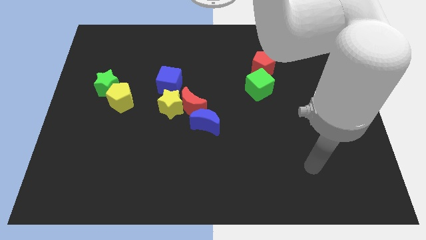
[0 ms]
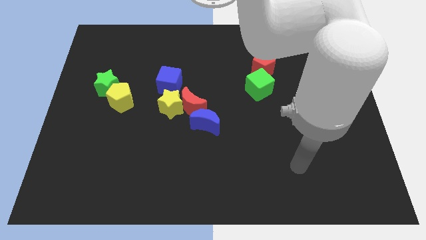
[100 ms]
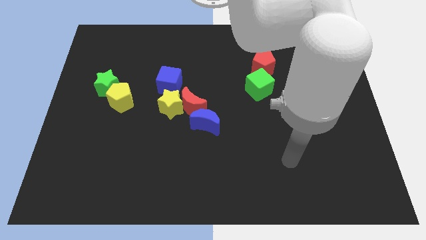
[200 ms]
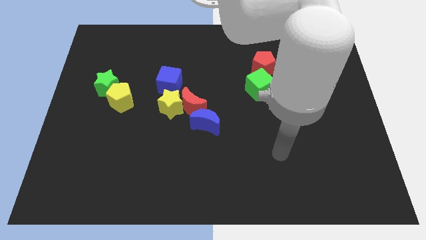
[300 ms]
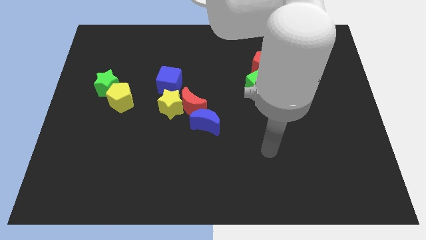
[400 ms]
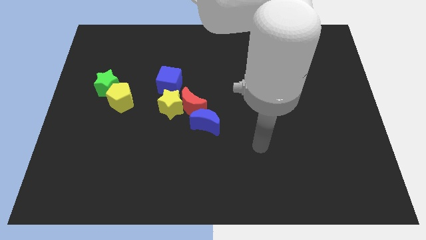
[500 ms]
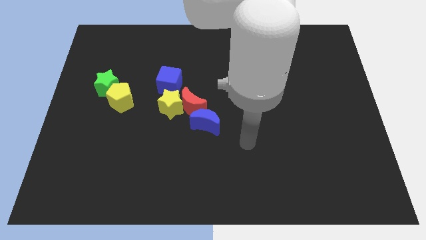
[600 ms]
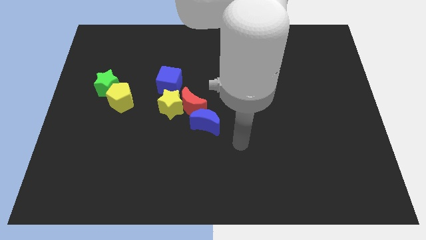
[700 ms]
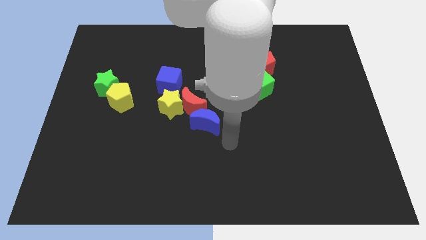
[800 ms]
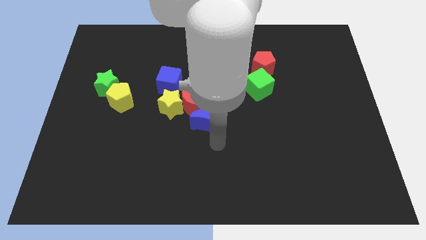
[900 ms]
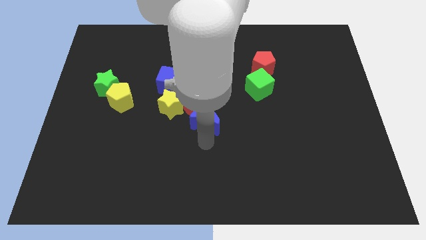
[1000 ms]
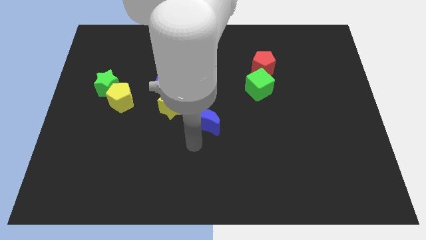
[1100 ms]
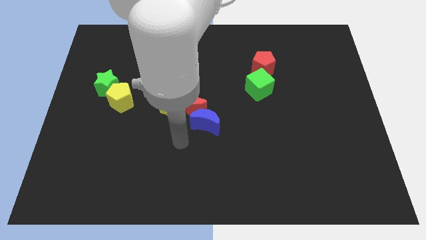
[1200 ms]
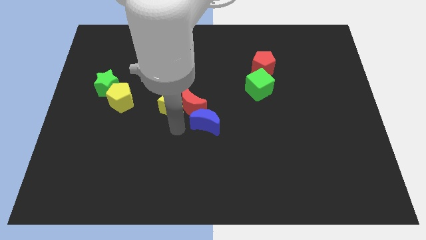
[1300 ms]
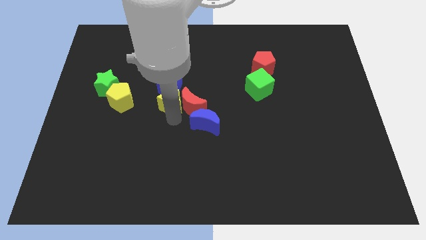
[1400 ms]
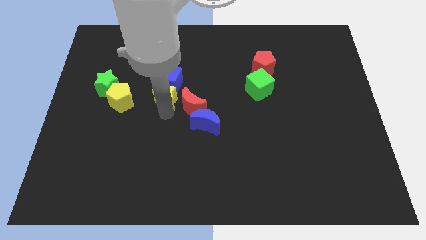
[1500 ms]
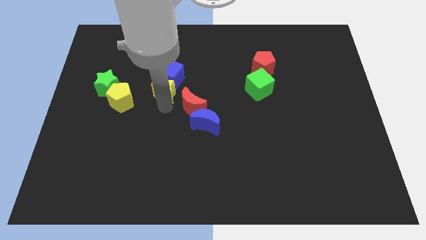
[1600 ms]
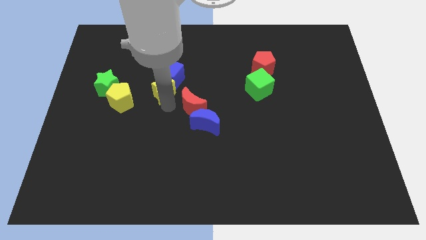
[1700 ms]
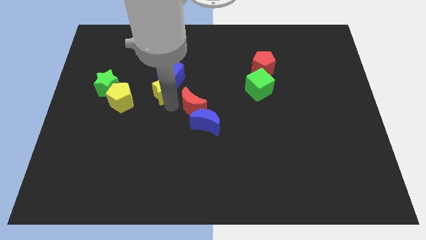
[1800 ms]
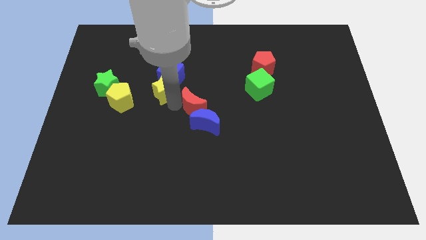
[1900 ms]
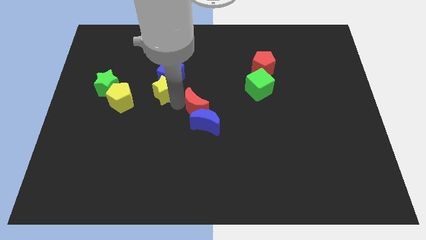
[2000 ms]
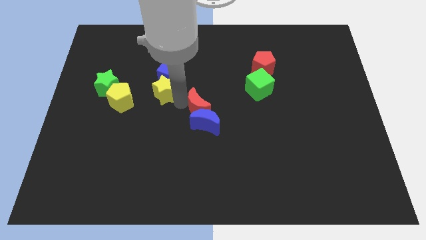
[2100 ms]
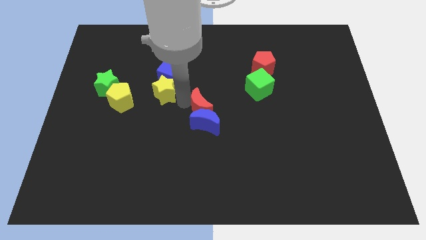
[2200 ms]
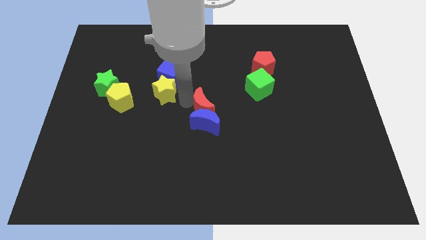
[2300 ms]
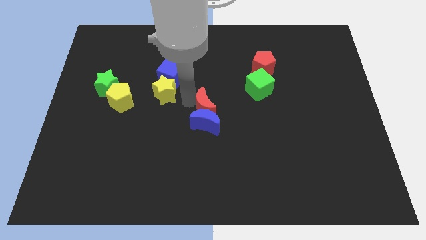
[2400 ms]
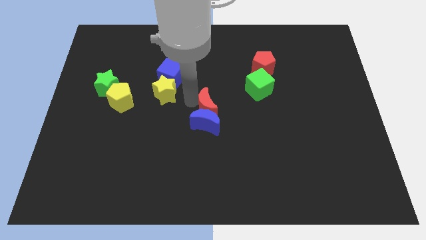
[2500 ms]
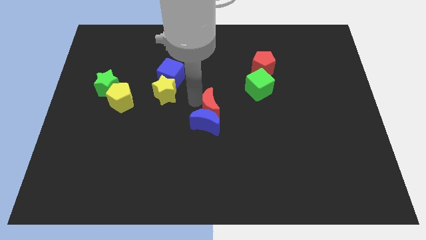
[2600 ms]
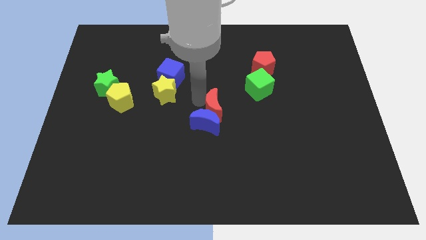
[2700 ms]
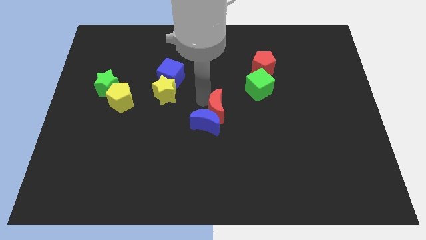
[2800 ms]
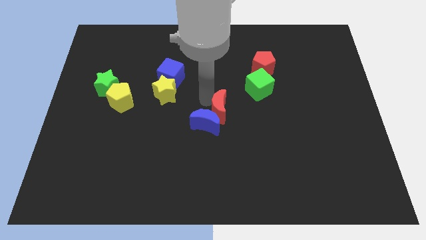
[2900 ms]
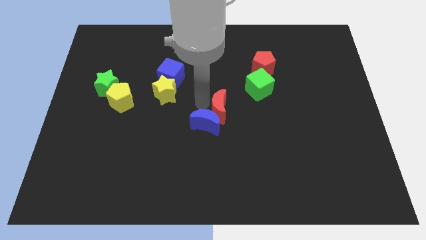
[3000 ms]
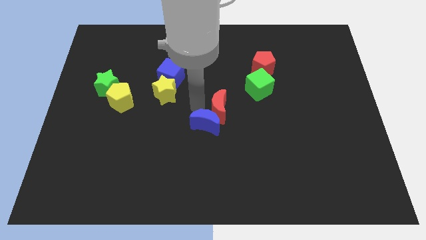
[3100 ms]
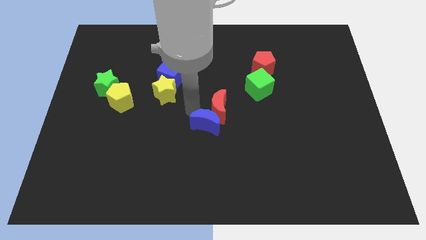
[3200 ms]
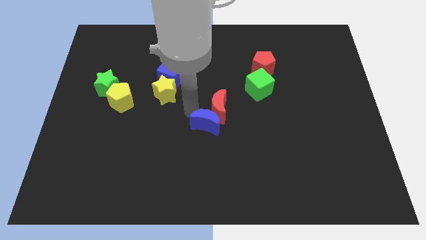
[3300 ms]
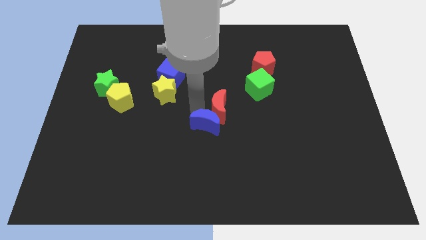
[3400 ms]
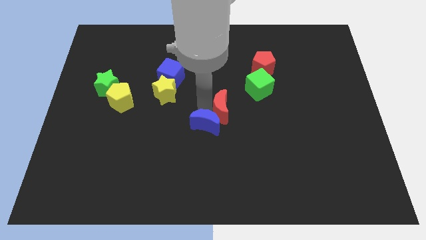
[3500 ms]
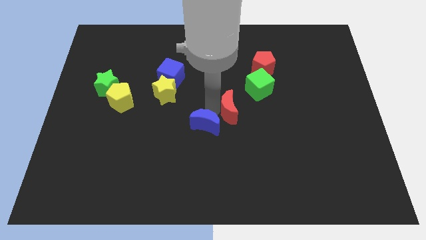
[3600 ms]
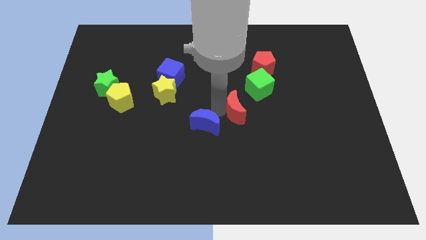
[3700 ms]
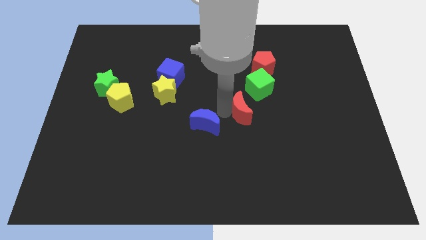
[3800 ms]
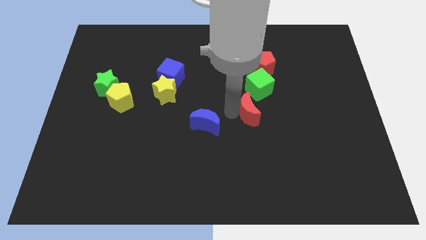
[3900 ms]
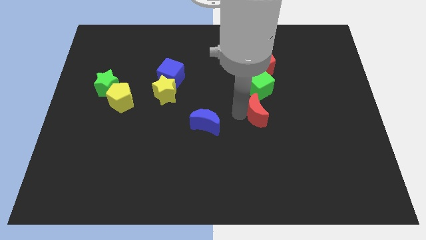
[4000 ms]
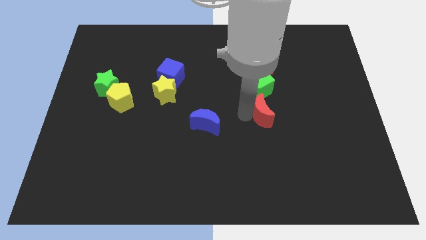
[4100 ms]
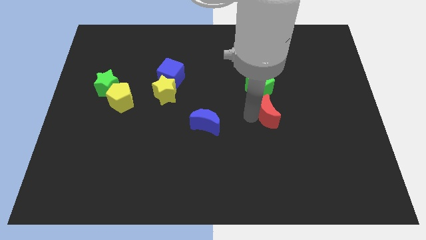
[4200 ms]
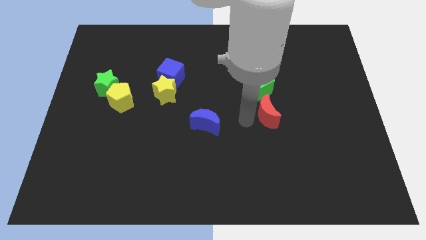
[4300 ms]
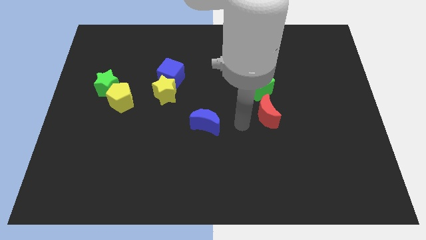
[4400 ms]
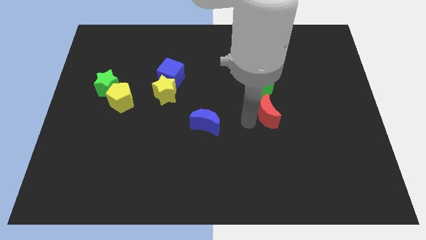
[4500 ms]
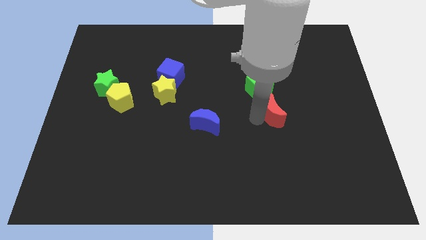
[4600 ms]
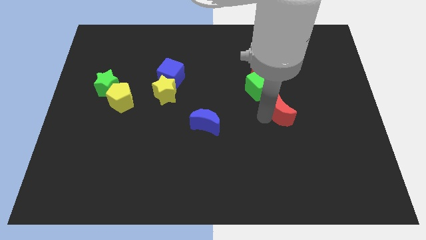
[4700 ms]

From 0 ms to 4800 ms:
move the red moon to the right

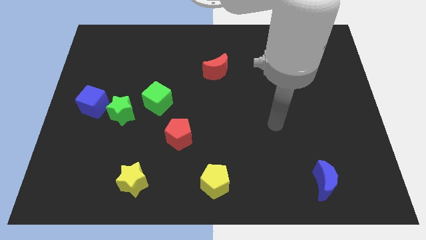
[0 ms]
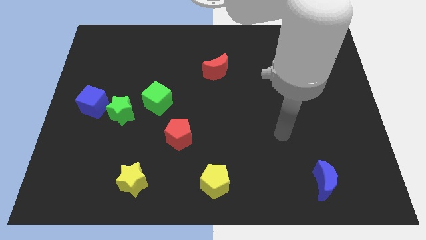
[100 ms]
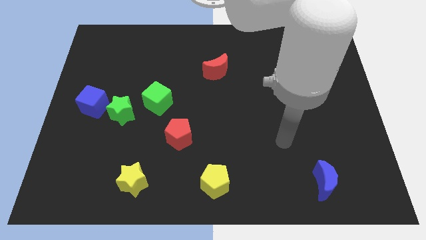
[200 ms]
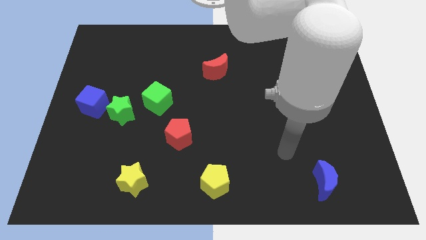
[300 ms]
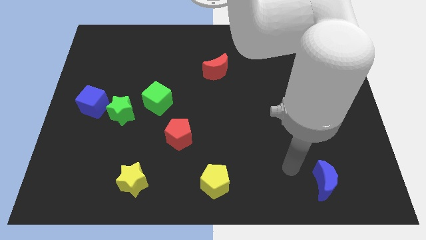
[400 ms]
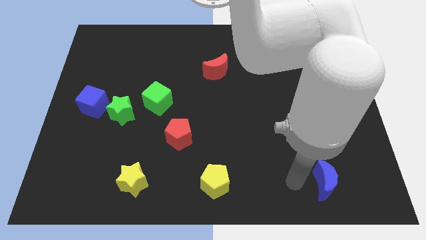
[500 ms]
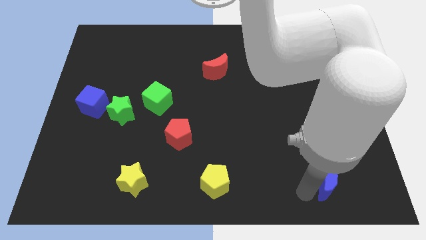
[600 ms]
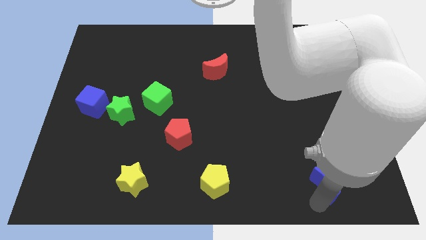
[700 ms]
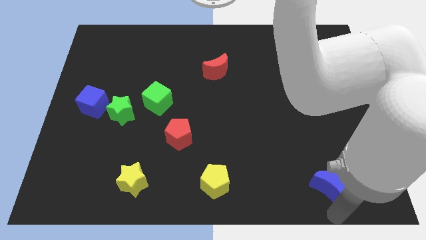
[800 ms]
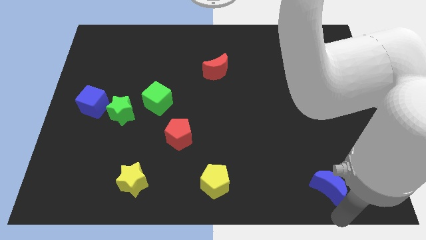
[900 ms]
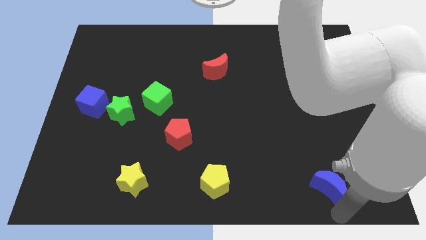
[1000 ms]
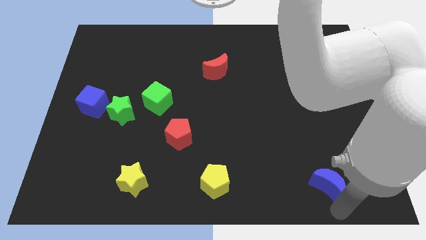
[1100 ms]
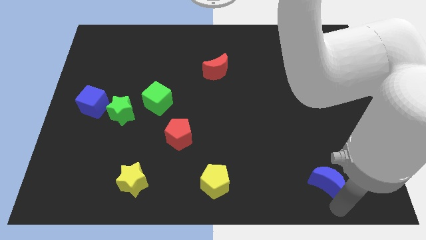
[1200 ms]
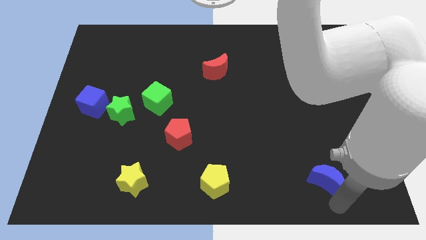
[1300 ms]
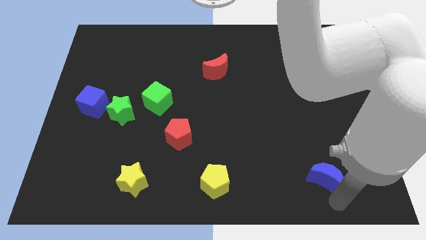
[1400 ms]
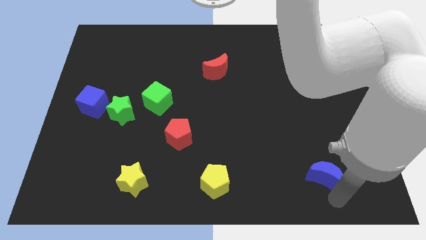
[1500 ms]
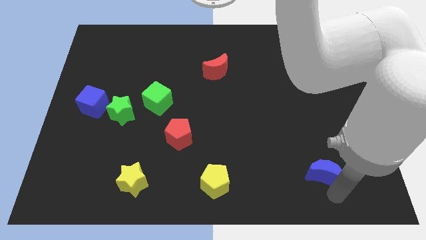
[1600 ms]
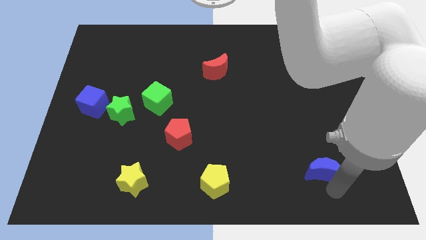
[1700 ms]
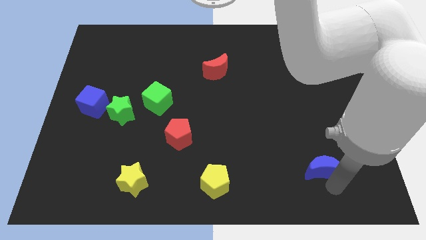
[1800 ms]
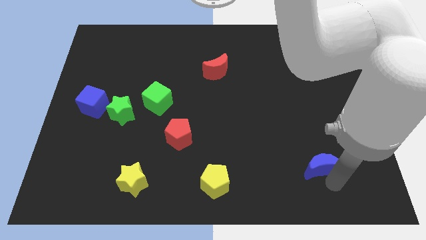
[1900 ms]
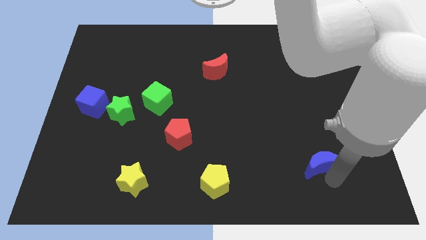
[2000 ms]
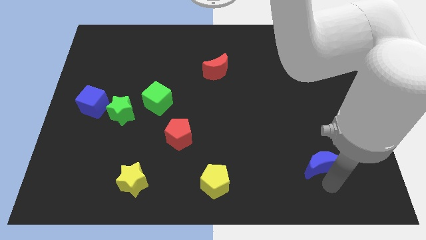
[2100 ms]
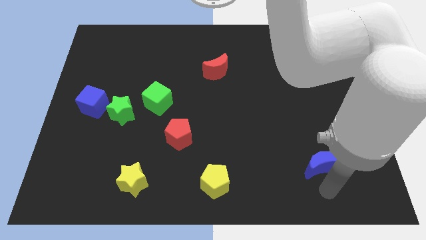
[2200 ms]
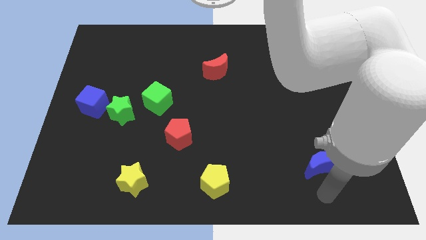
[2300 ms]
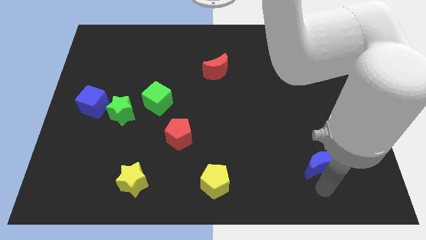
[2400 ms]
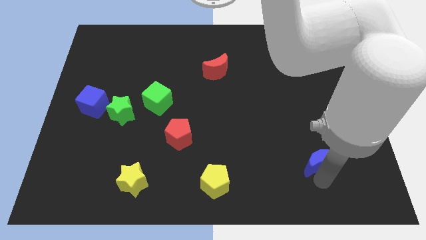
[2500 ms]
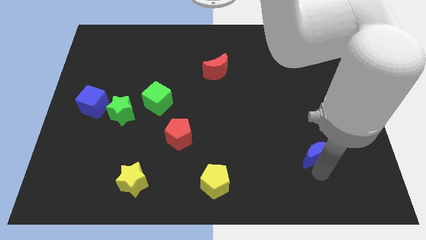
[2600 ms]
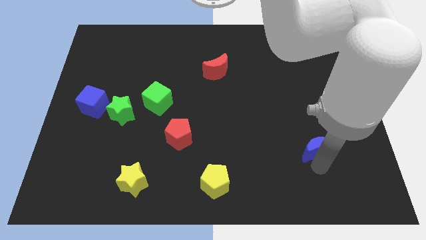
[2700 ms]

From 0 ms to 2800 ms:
slightly move the blue moon up

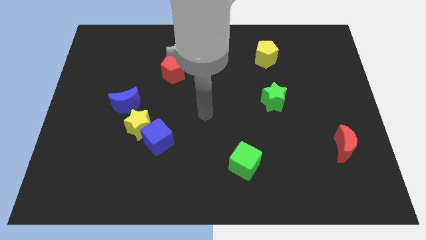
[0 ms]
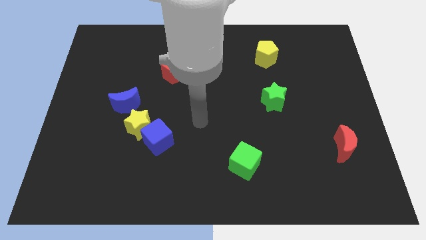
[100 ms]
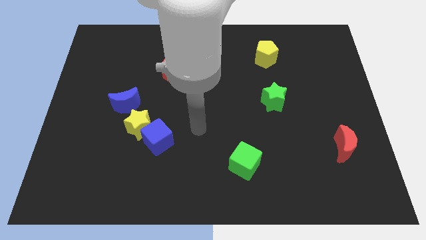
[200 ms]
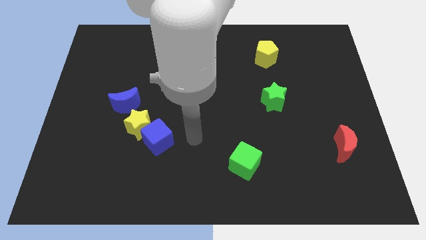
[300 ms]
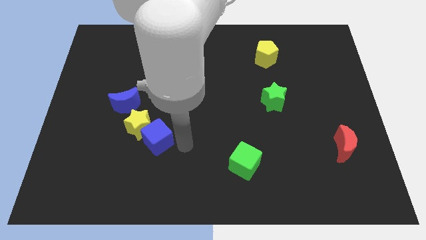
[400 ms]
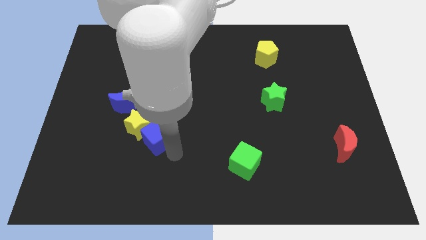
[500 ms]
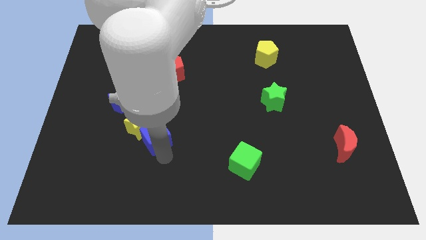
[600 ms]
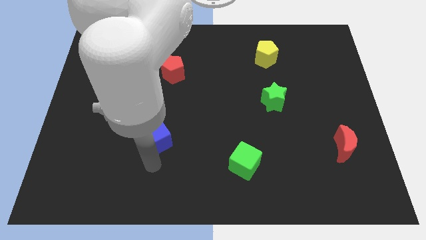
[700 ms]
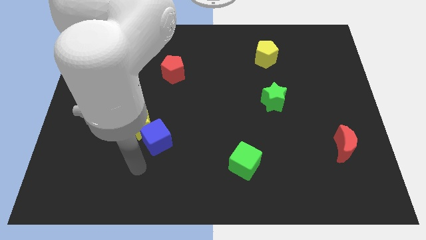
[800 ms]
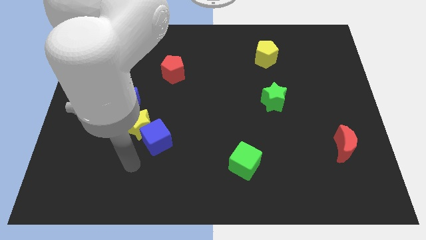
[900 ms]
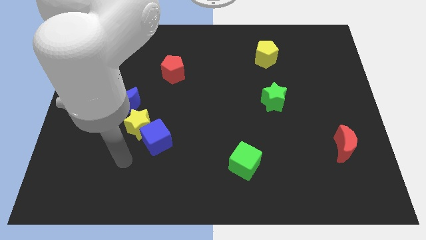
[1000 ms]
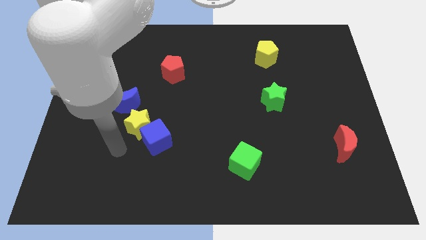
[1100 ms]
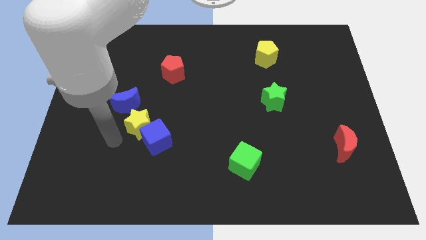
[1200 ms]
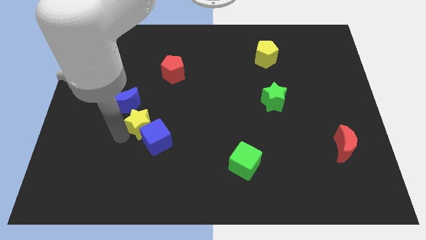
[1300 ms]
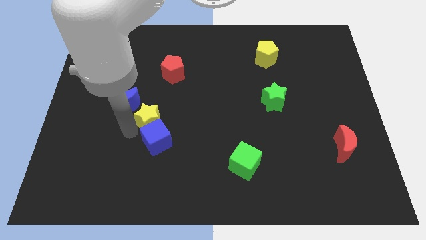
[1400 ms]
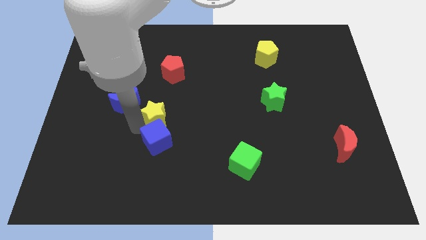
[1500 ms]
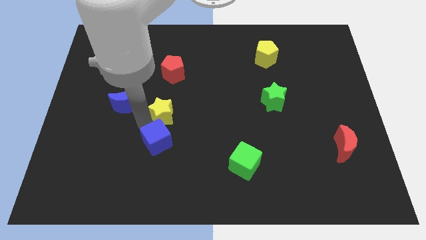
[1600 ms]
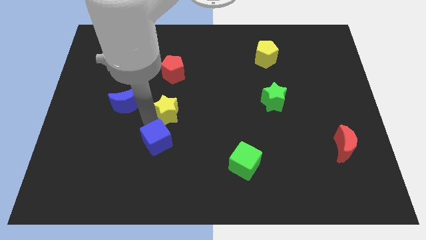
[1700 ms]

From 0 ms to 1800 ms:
slightly move the yellow star up and then to the right
